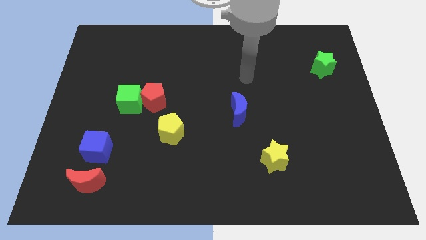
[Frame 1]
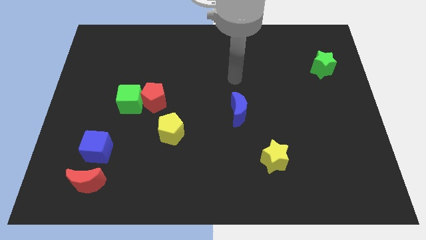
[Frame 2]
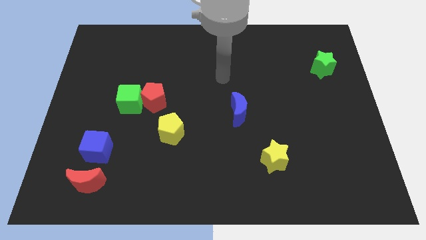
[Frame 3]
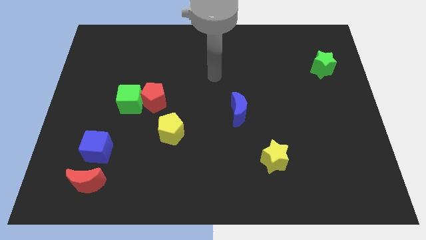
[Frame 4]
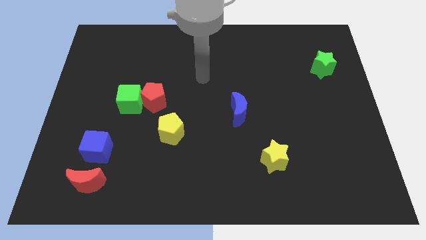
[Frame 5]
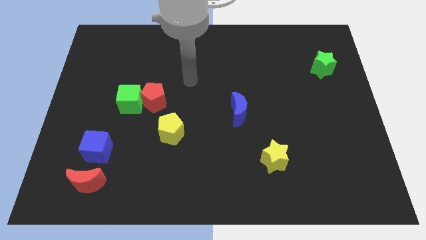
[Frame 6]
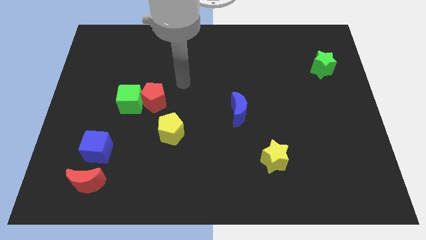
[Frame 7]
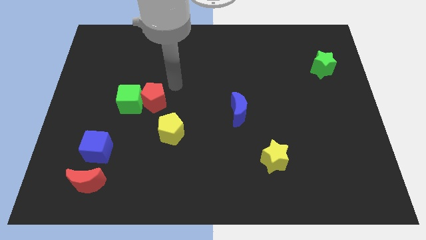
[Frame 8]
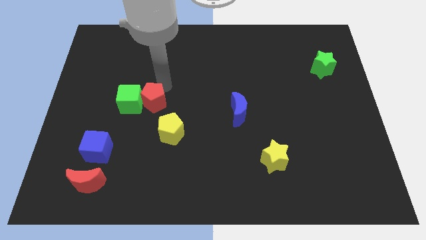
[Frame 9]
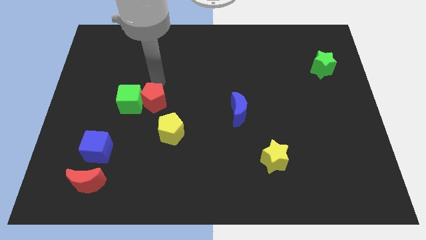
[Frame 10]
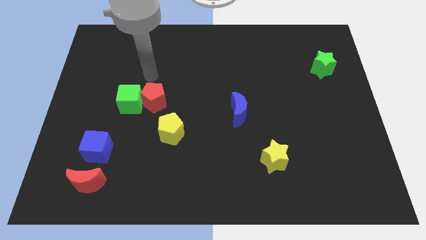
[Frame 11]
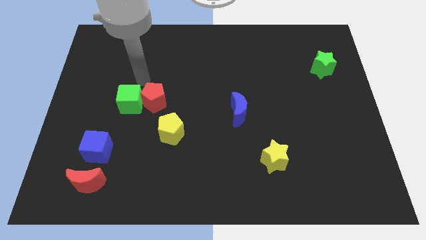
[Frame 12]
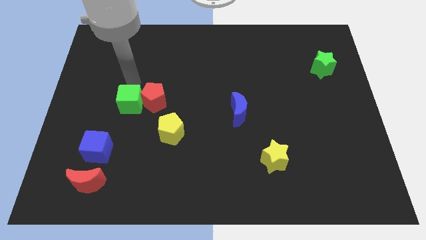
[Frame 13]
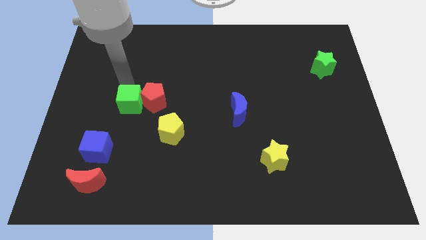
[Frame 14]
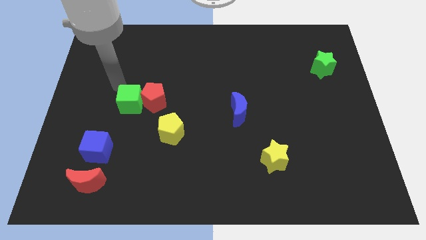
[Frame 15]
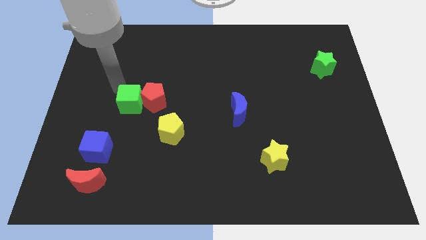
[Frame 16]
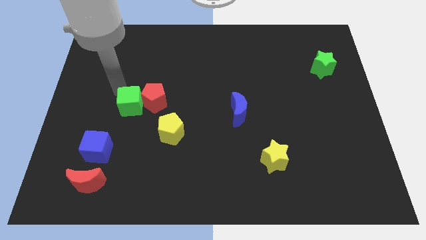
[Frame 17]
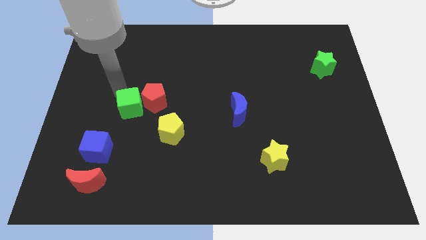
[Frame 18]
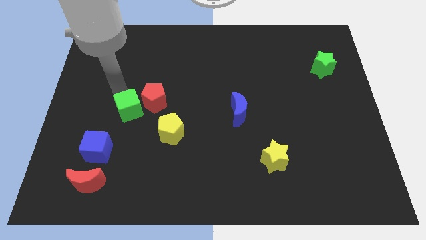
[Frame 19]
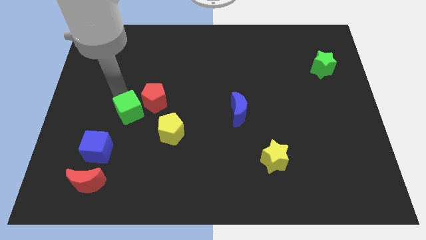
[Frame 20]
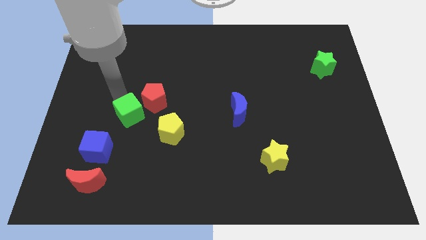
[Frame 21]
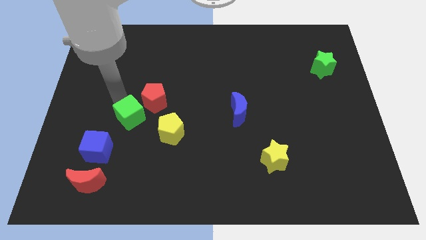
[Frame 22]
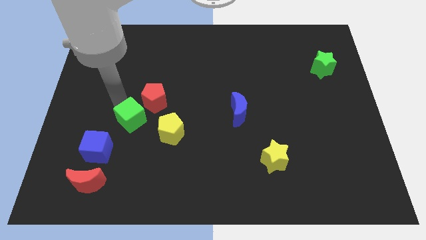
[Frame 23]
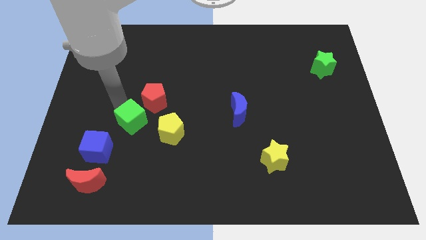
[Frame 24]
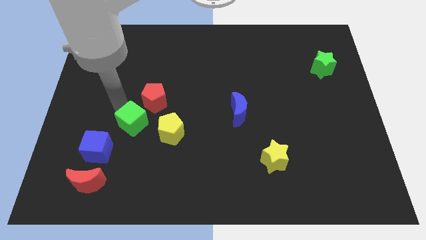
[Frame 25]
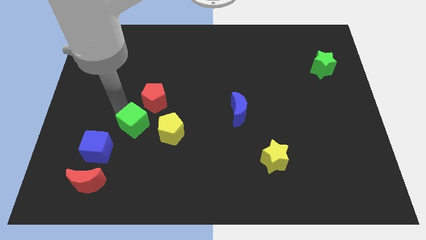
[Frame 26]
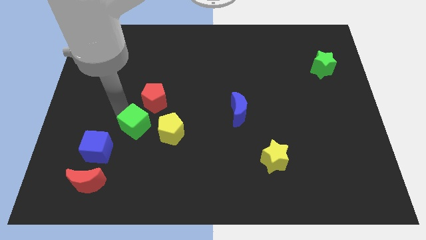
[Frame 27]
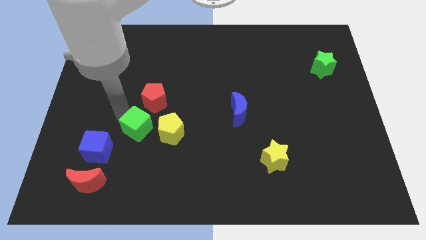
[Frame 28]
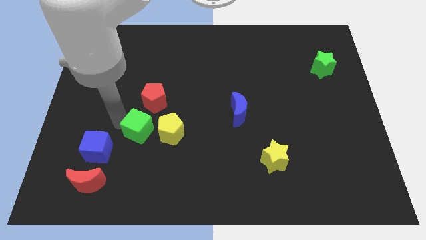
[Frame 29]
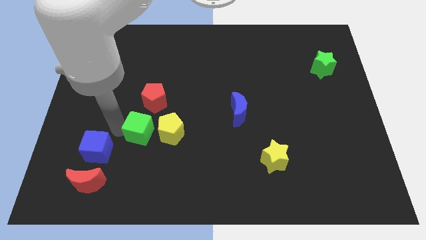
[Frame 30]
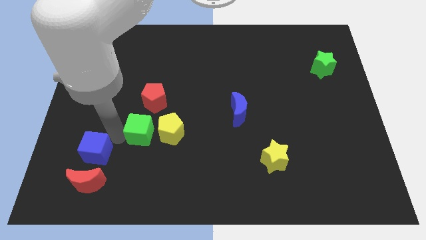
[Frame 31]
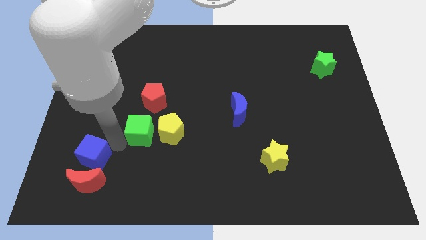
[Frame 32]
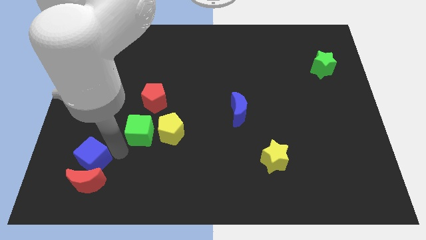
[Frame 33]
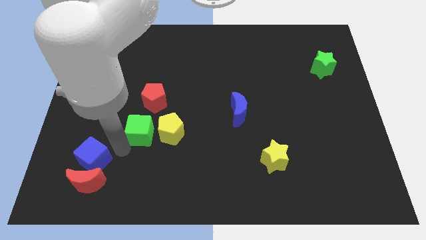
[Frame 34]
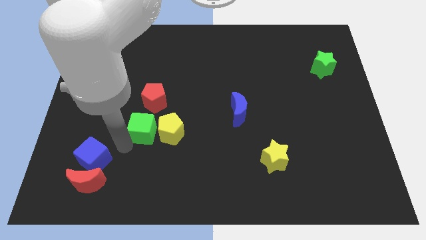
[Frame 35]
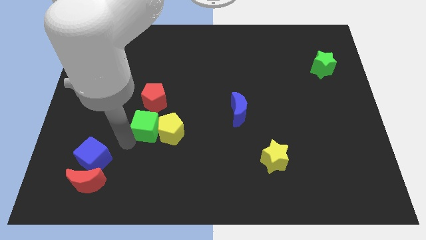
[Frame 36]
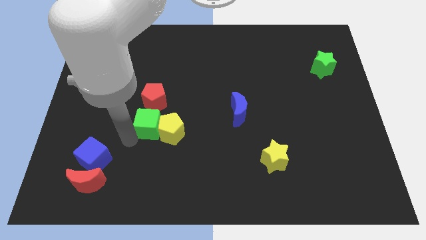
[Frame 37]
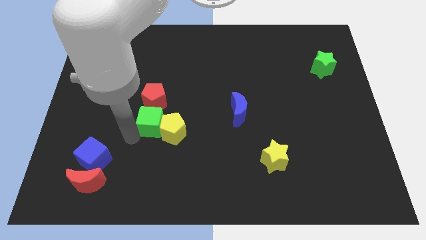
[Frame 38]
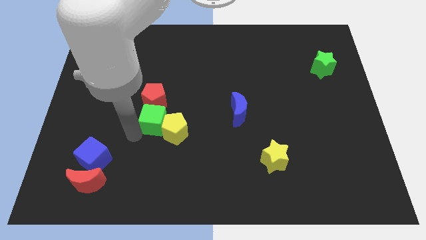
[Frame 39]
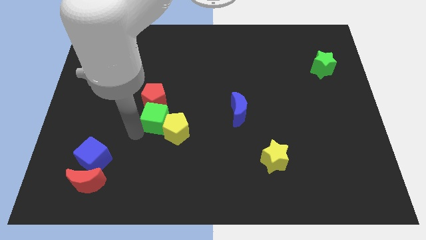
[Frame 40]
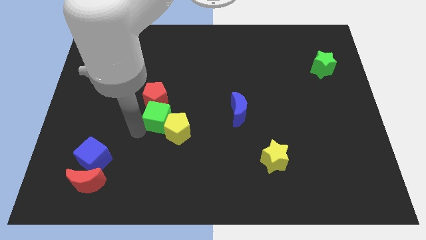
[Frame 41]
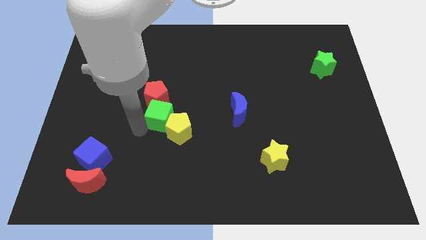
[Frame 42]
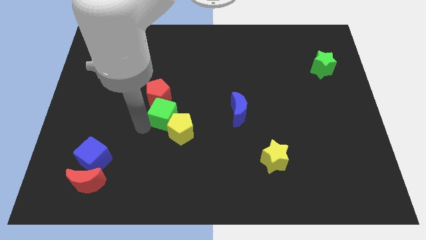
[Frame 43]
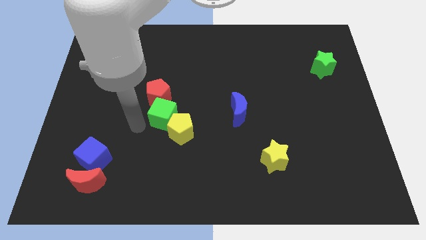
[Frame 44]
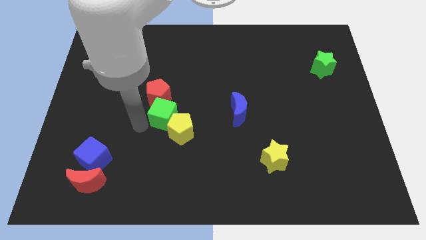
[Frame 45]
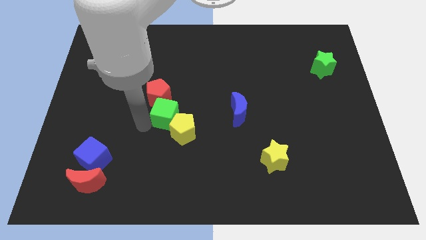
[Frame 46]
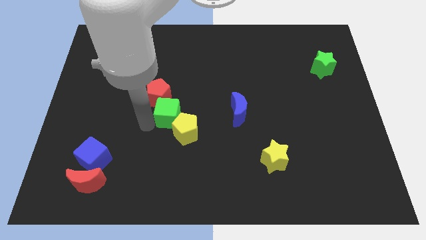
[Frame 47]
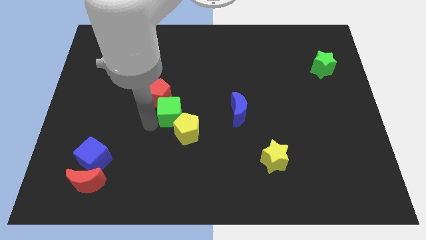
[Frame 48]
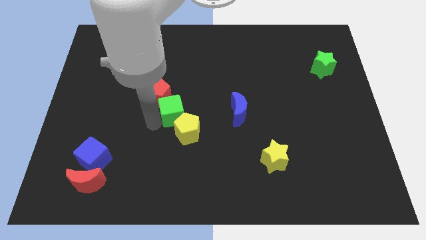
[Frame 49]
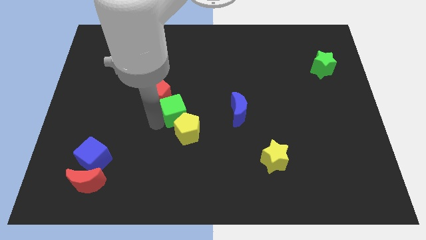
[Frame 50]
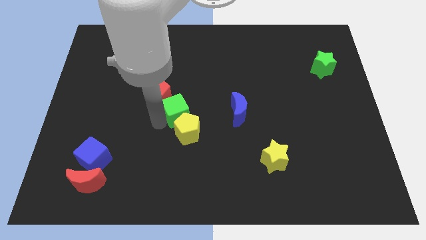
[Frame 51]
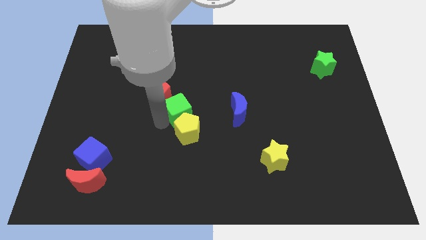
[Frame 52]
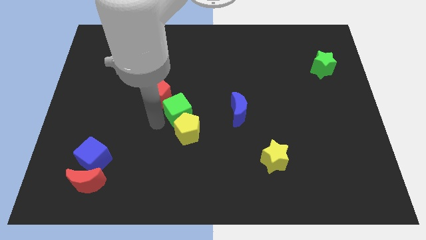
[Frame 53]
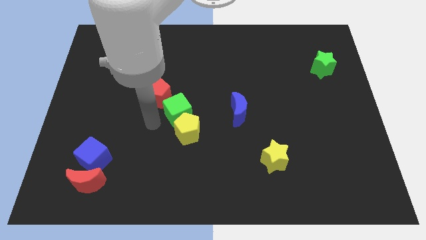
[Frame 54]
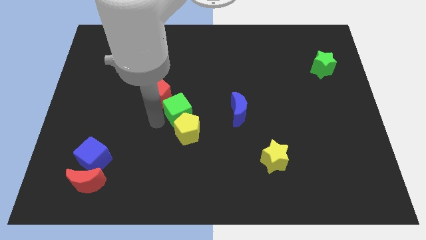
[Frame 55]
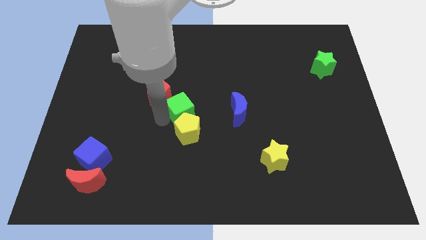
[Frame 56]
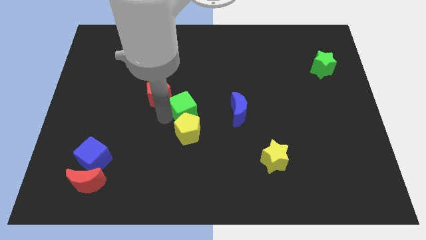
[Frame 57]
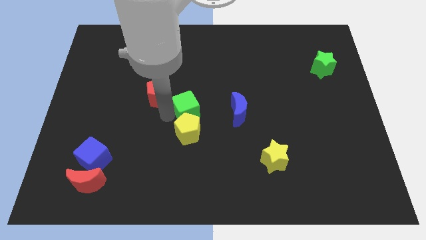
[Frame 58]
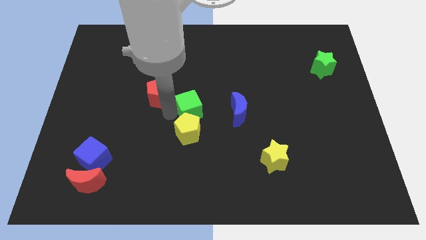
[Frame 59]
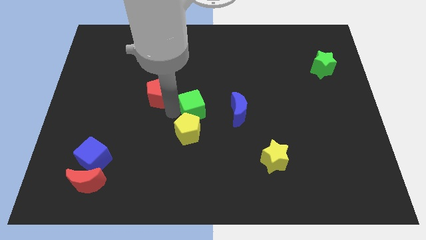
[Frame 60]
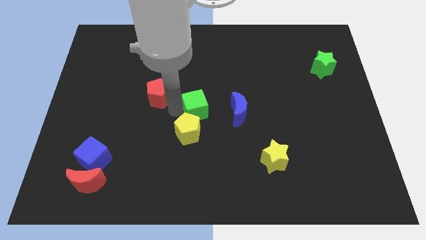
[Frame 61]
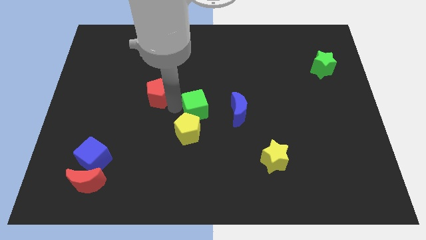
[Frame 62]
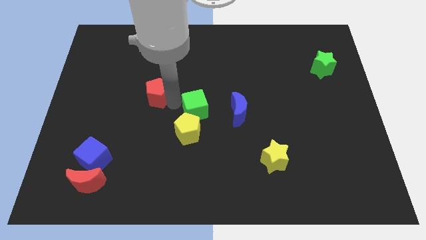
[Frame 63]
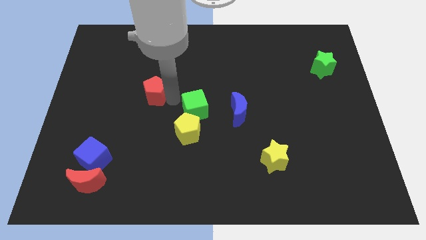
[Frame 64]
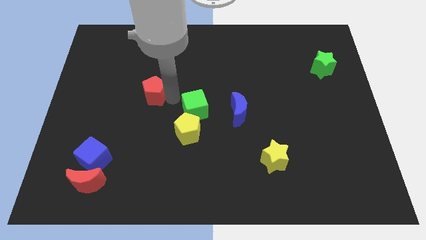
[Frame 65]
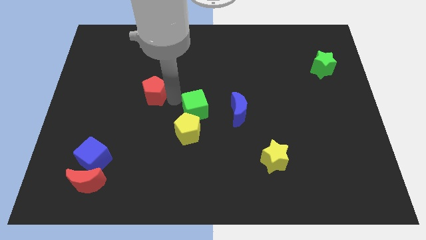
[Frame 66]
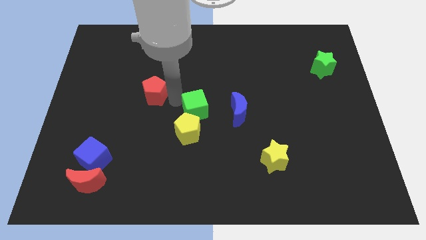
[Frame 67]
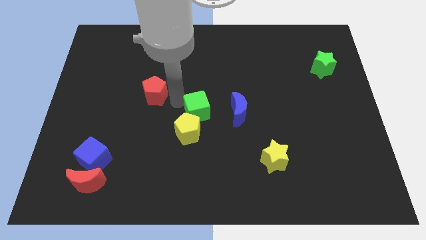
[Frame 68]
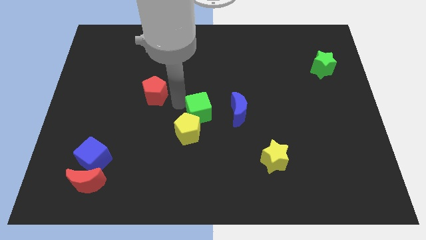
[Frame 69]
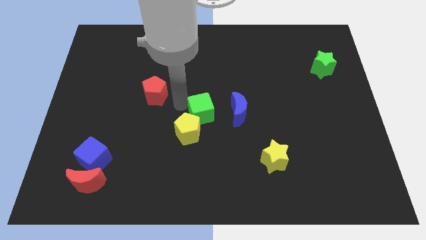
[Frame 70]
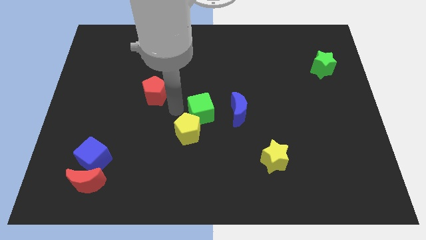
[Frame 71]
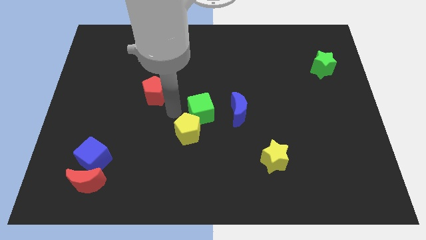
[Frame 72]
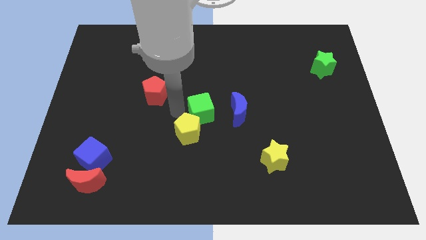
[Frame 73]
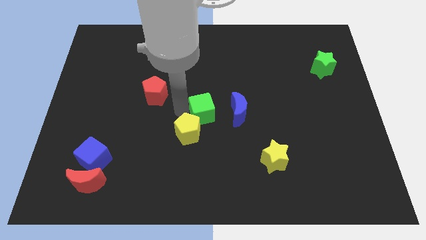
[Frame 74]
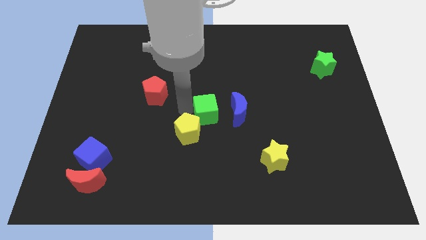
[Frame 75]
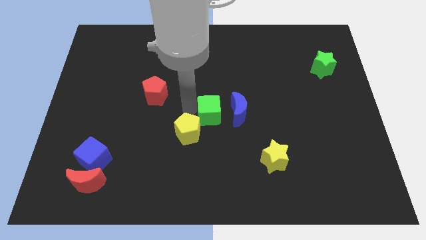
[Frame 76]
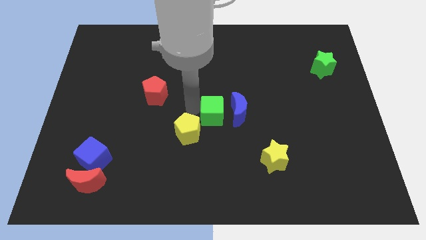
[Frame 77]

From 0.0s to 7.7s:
move the green cube towards the blue moon
